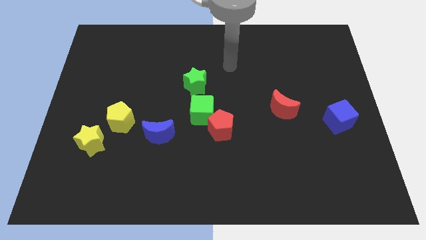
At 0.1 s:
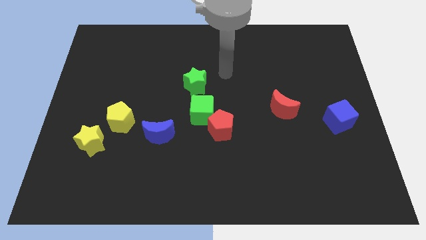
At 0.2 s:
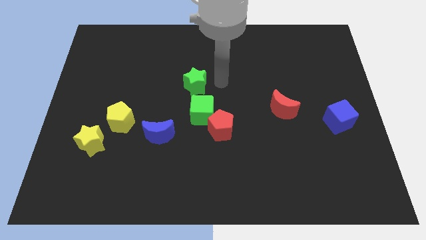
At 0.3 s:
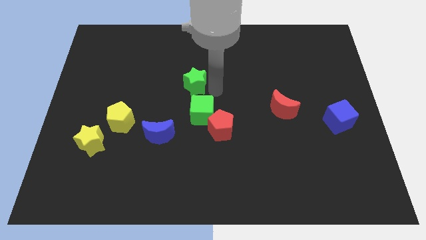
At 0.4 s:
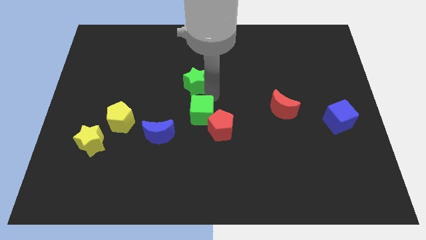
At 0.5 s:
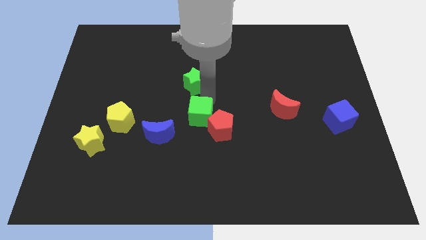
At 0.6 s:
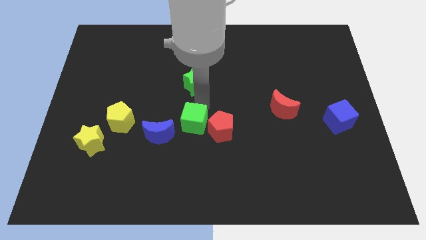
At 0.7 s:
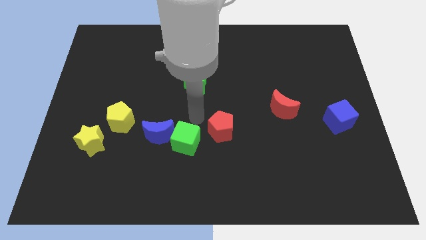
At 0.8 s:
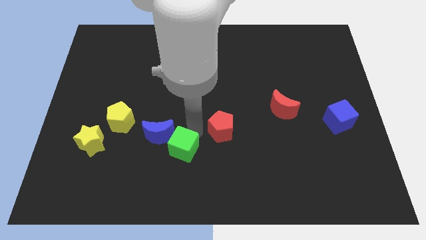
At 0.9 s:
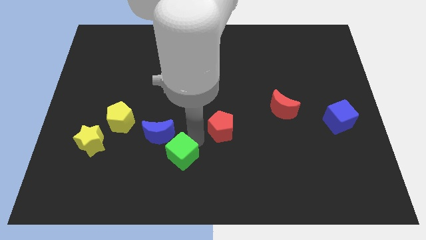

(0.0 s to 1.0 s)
separate the red pentagon from the green cube

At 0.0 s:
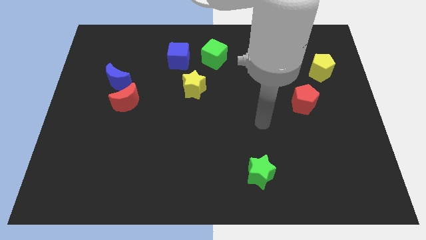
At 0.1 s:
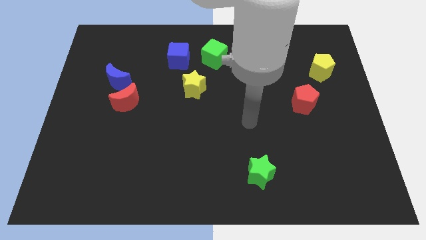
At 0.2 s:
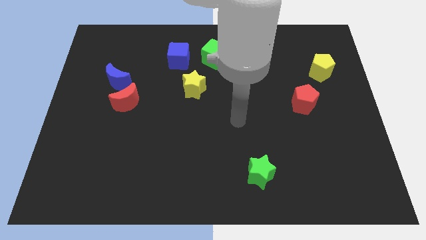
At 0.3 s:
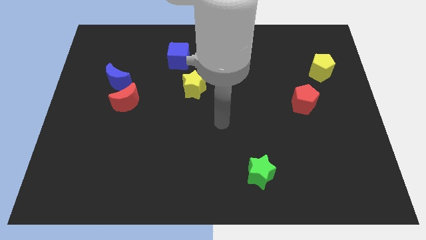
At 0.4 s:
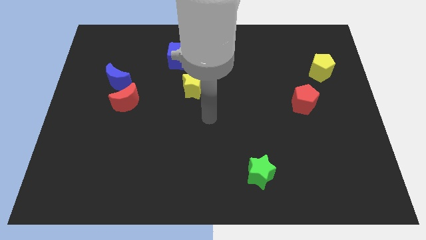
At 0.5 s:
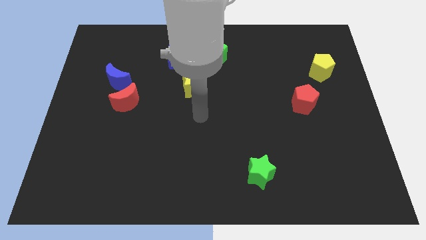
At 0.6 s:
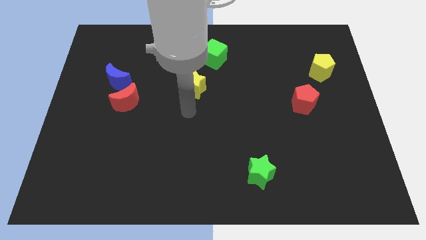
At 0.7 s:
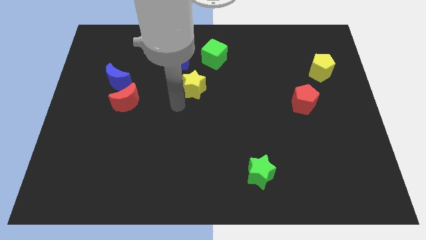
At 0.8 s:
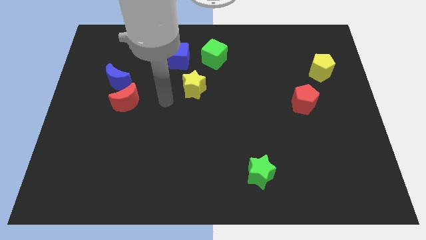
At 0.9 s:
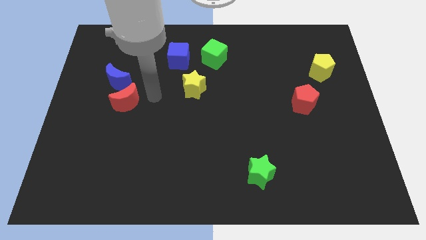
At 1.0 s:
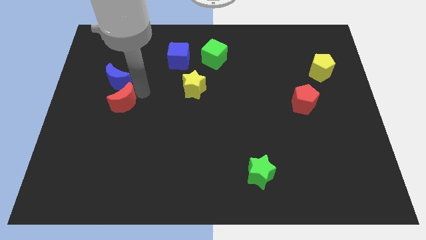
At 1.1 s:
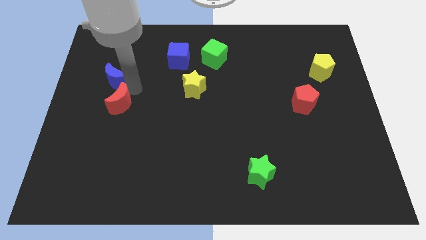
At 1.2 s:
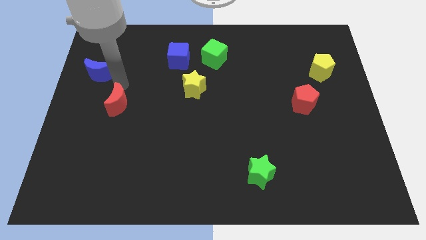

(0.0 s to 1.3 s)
move the red moon away from the blue moon

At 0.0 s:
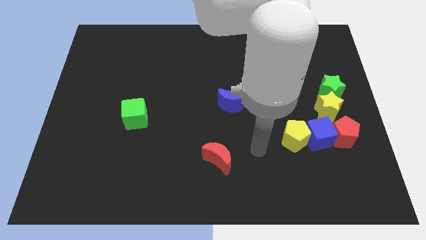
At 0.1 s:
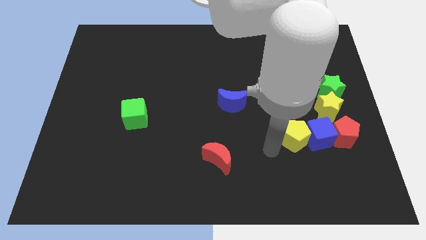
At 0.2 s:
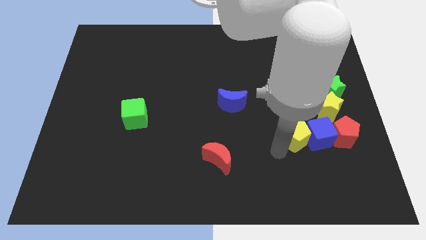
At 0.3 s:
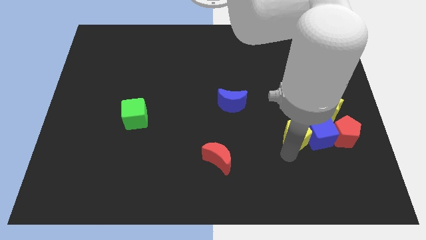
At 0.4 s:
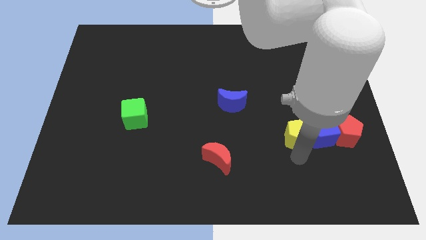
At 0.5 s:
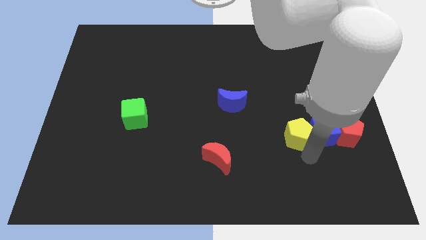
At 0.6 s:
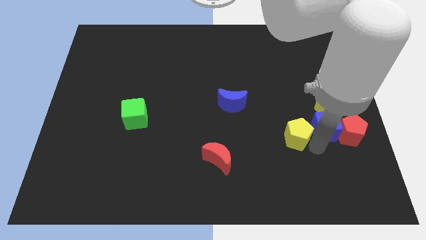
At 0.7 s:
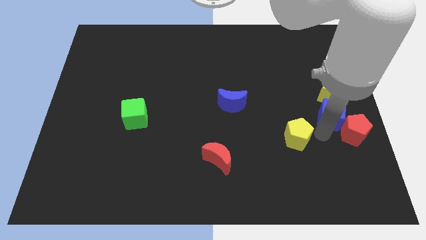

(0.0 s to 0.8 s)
move the yellow pentagon away from the blue cube

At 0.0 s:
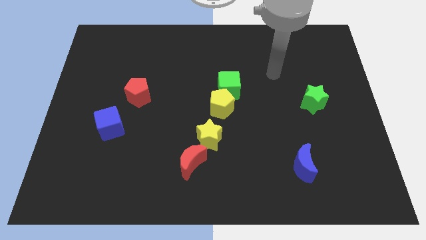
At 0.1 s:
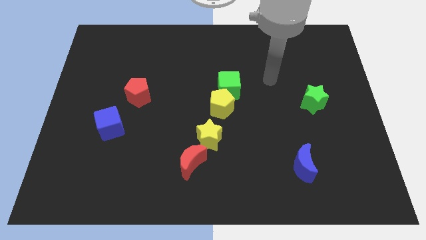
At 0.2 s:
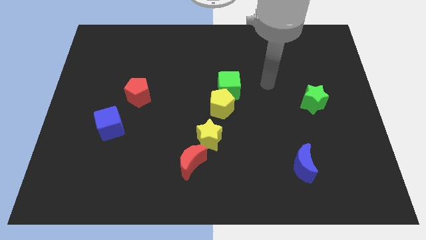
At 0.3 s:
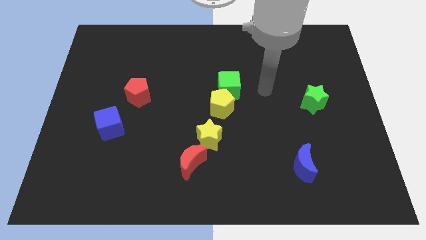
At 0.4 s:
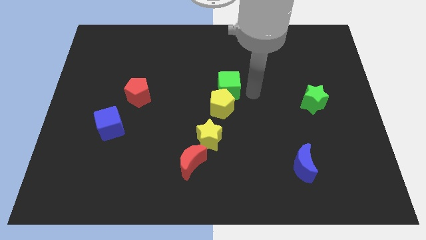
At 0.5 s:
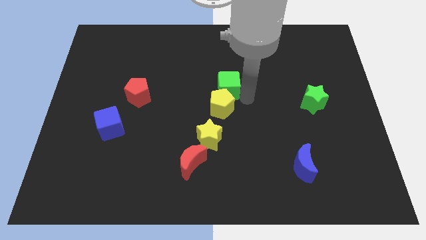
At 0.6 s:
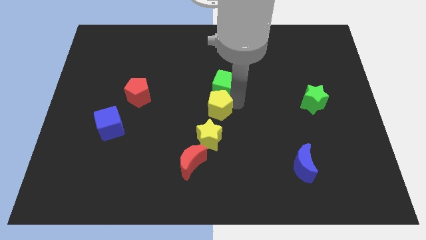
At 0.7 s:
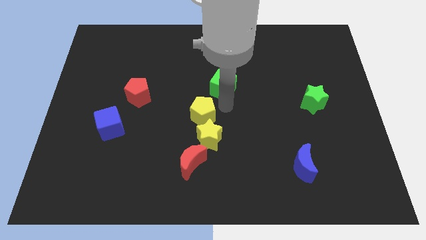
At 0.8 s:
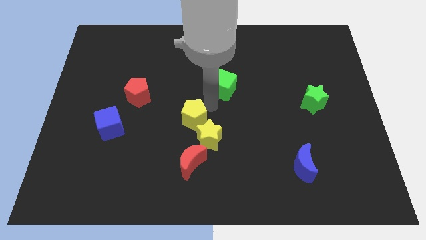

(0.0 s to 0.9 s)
separate the green cube from the yellow pentagon

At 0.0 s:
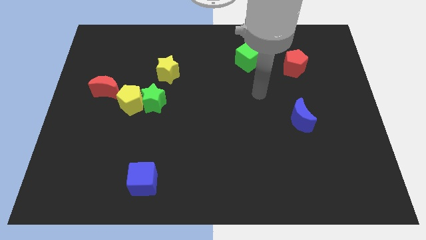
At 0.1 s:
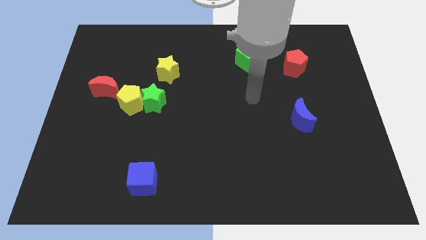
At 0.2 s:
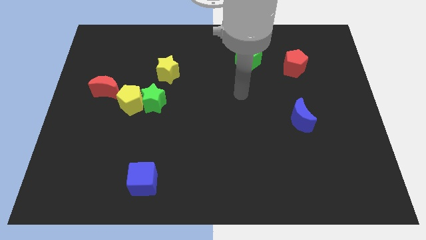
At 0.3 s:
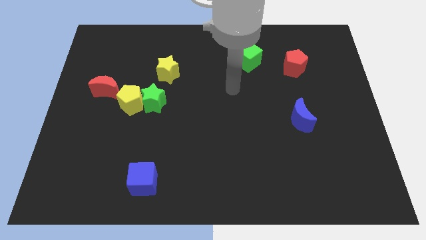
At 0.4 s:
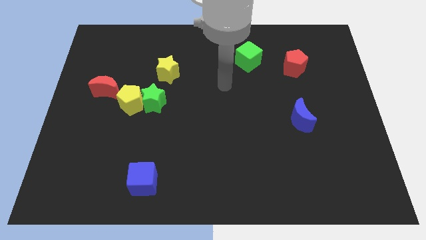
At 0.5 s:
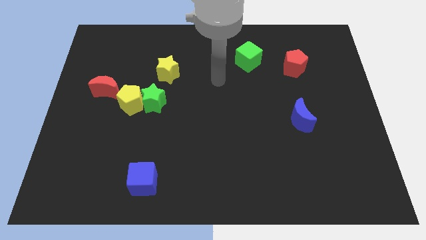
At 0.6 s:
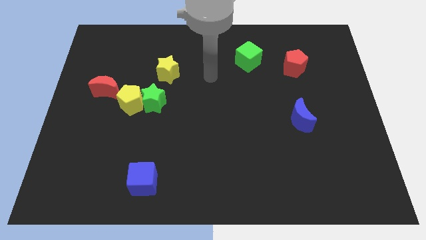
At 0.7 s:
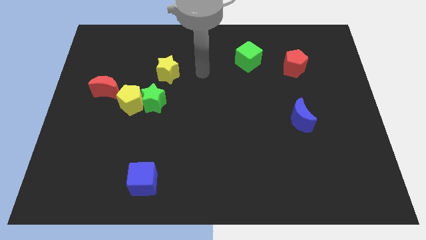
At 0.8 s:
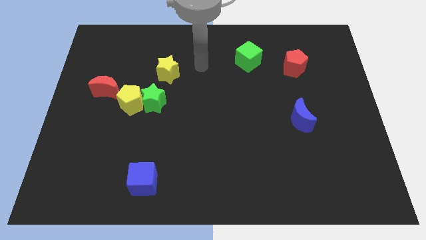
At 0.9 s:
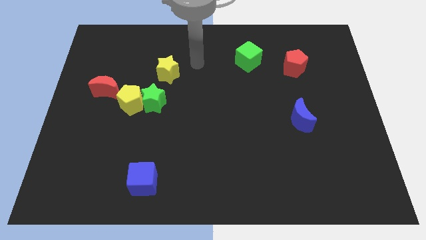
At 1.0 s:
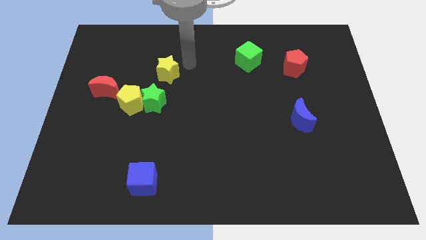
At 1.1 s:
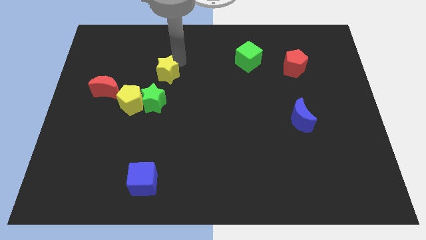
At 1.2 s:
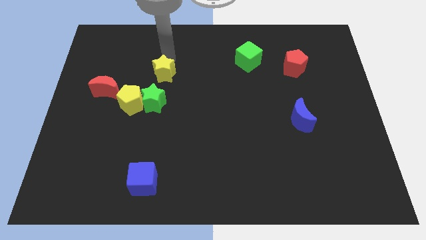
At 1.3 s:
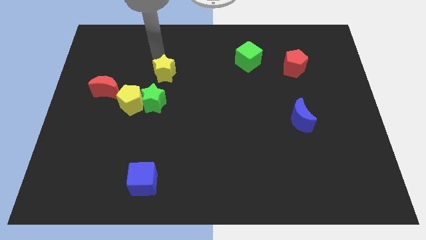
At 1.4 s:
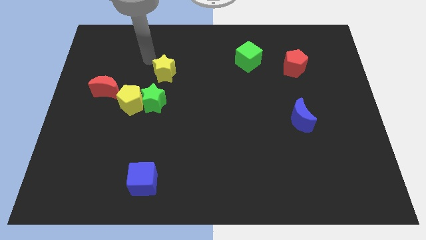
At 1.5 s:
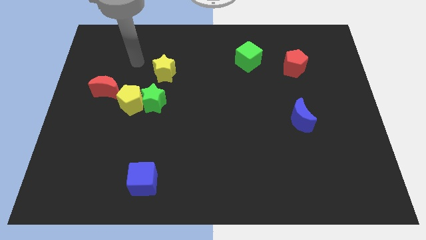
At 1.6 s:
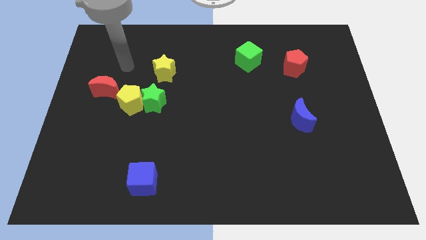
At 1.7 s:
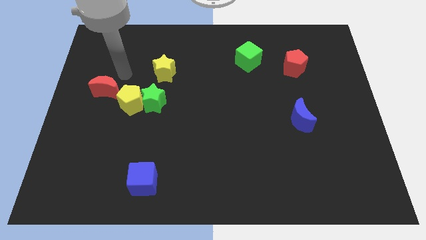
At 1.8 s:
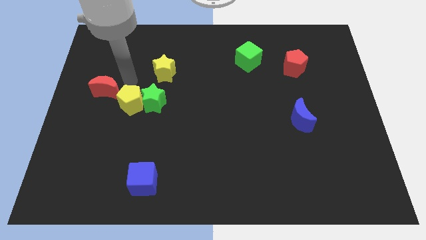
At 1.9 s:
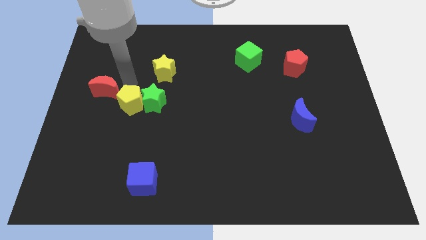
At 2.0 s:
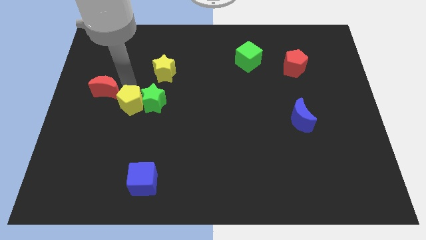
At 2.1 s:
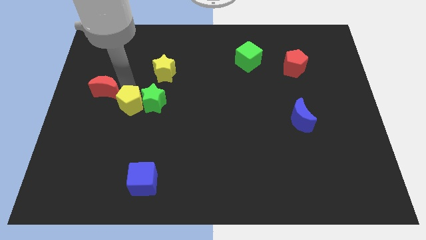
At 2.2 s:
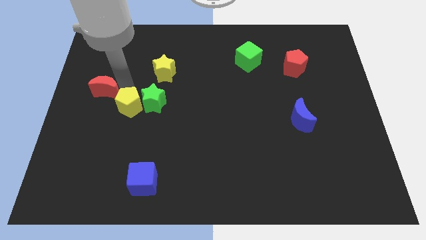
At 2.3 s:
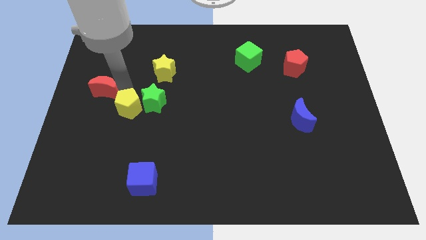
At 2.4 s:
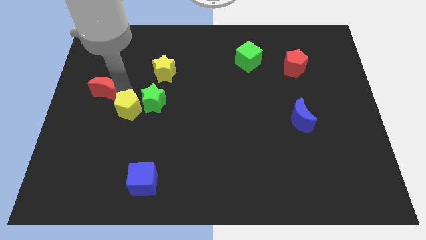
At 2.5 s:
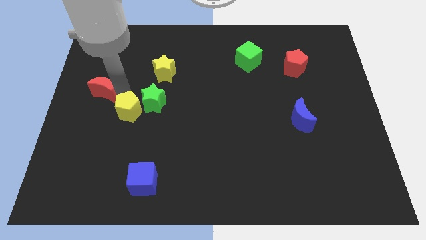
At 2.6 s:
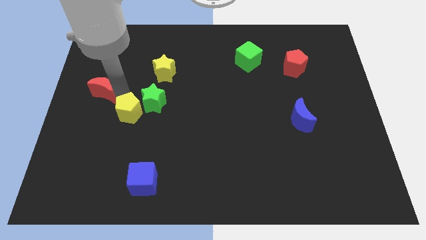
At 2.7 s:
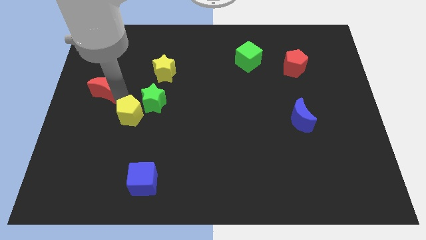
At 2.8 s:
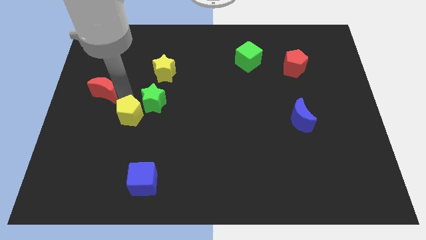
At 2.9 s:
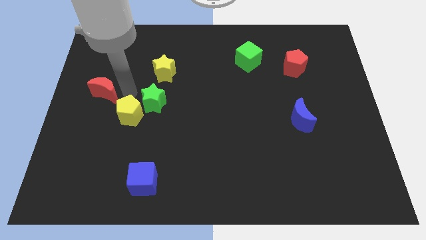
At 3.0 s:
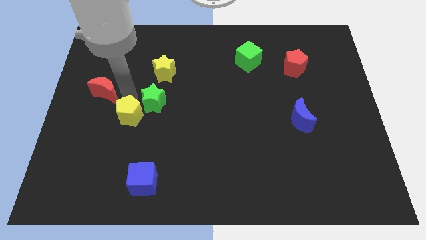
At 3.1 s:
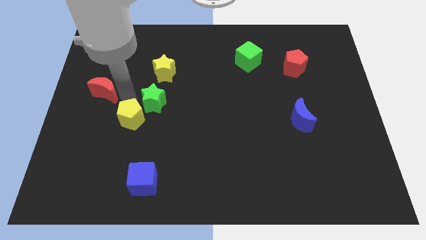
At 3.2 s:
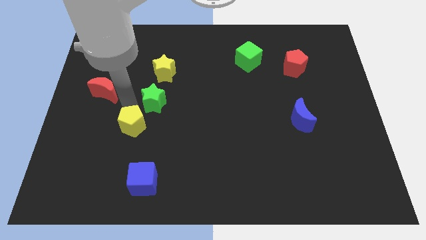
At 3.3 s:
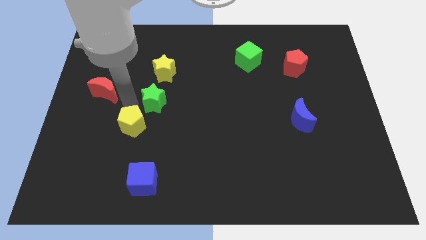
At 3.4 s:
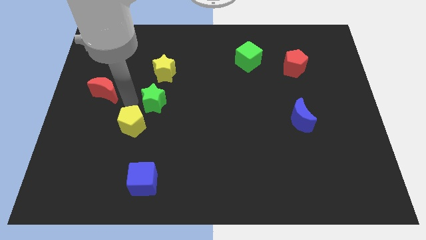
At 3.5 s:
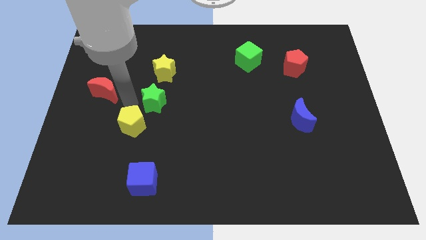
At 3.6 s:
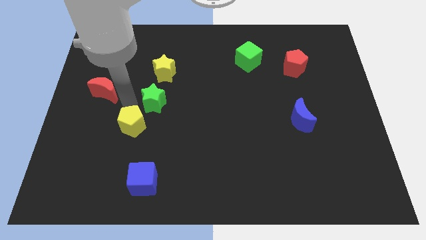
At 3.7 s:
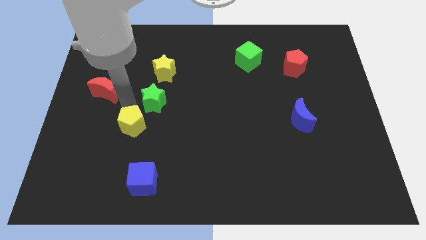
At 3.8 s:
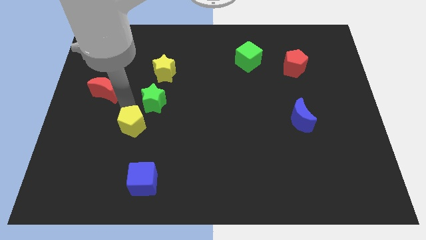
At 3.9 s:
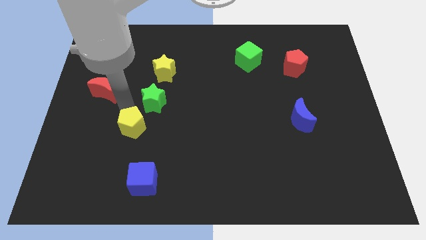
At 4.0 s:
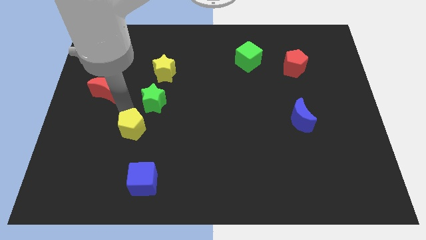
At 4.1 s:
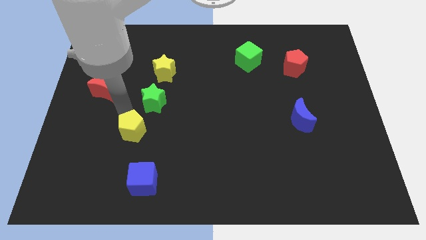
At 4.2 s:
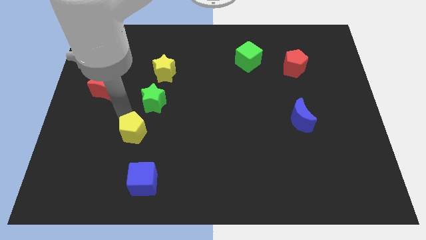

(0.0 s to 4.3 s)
move the yellow pentagon away from the green star and red moon

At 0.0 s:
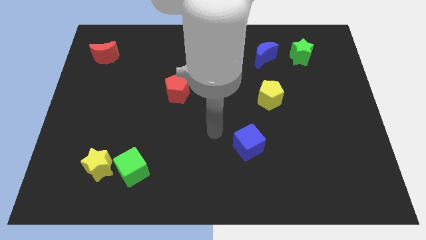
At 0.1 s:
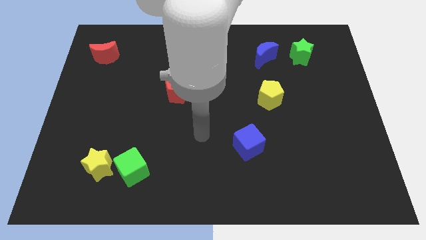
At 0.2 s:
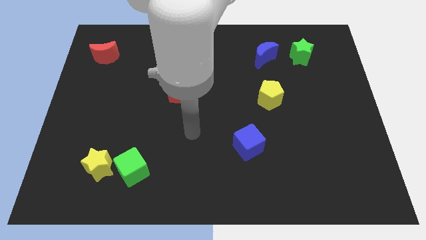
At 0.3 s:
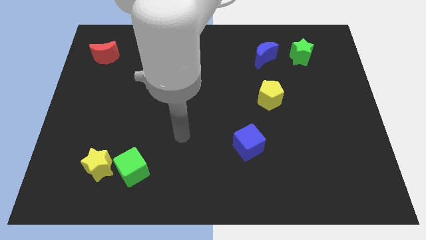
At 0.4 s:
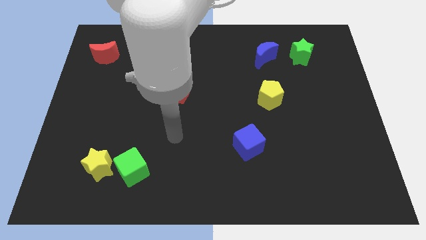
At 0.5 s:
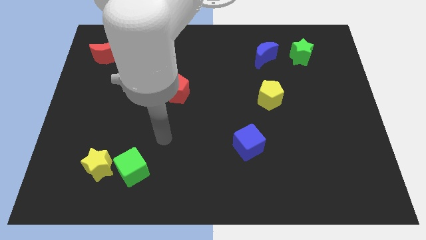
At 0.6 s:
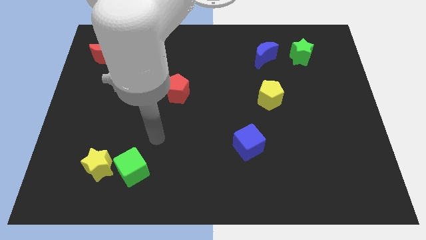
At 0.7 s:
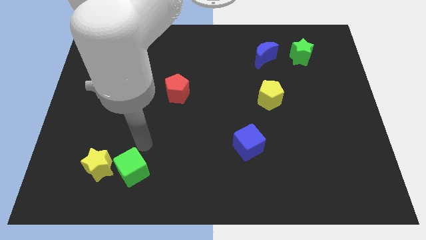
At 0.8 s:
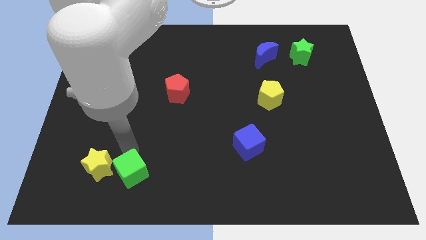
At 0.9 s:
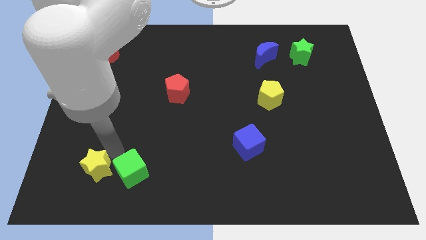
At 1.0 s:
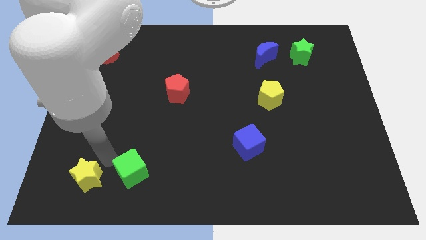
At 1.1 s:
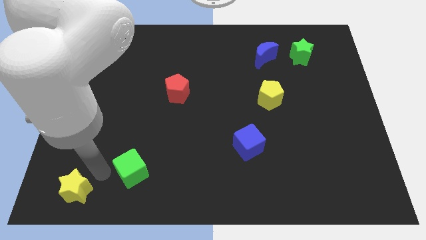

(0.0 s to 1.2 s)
move the green cube away from the yellow star

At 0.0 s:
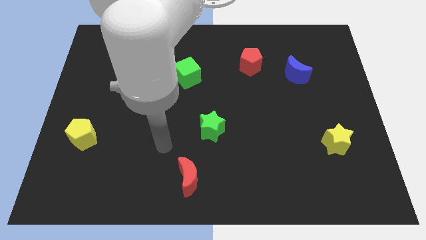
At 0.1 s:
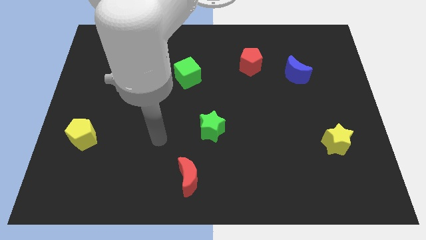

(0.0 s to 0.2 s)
move the blue cube away from the green cube
